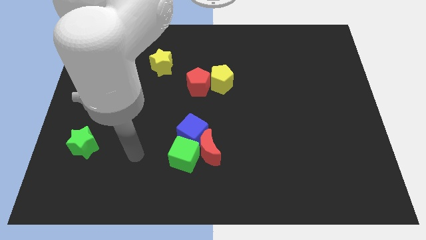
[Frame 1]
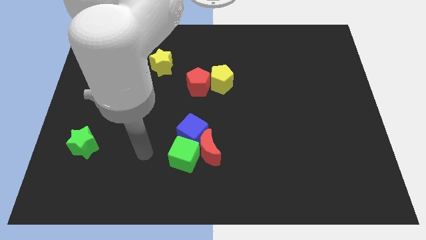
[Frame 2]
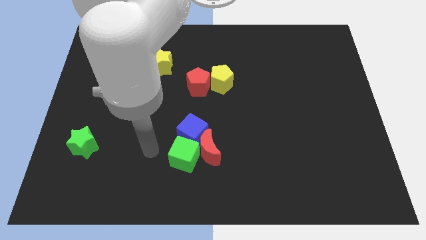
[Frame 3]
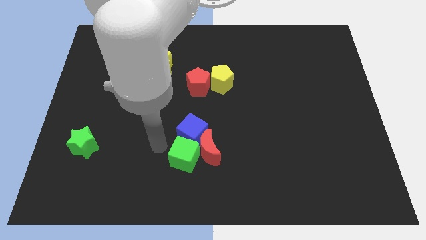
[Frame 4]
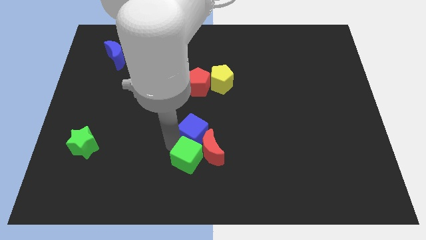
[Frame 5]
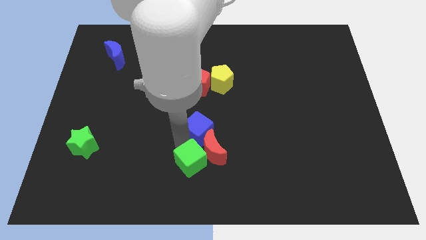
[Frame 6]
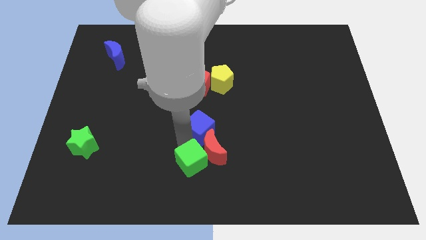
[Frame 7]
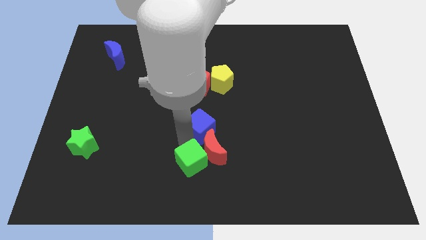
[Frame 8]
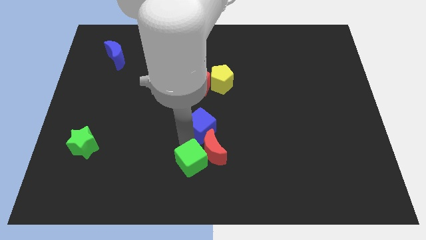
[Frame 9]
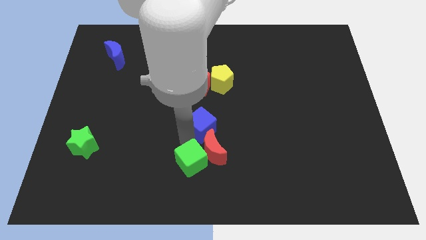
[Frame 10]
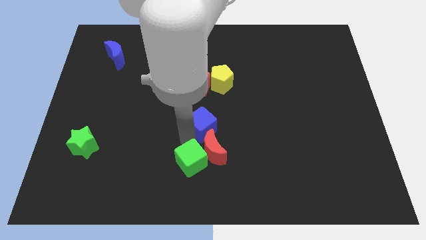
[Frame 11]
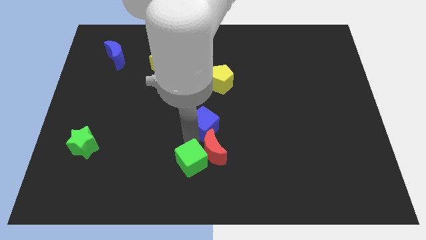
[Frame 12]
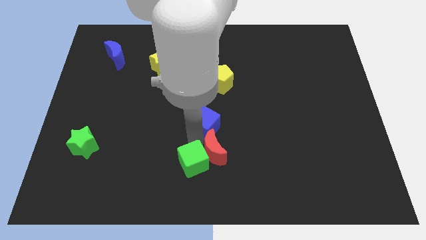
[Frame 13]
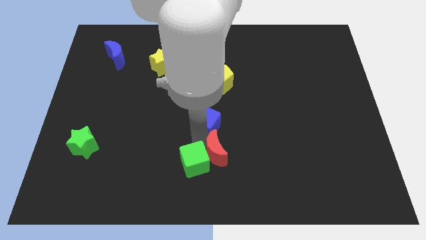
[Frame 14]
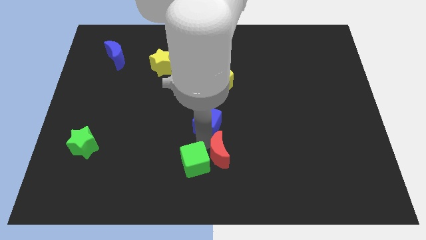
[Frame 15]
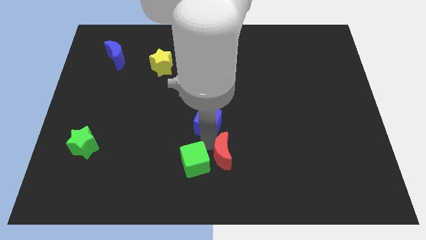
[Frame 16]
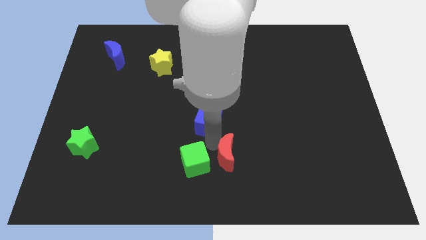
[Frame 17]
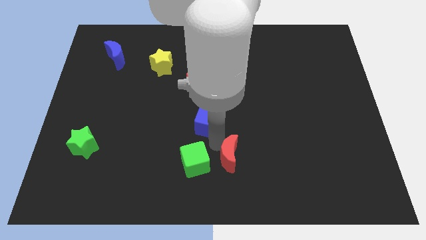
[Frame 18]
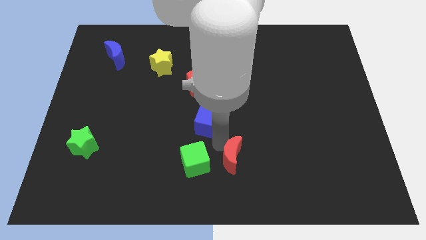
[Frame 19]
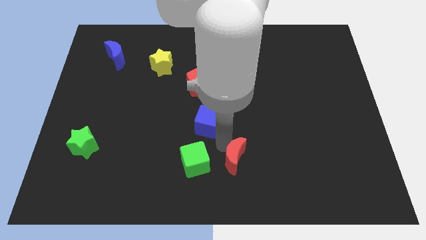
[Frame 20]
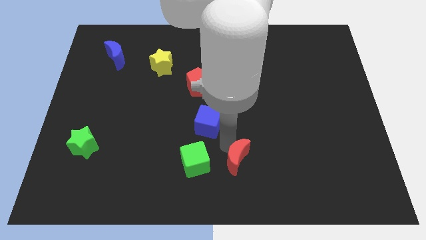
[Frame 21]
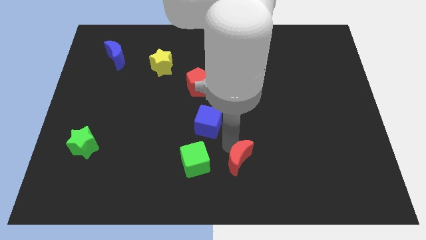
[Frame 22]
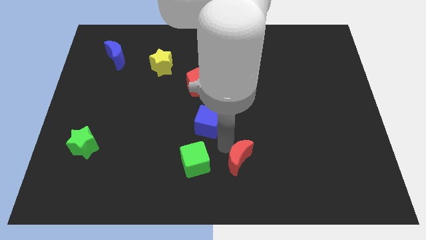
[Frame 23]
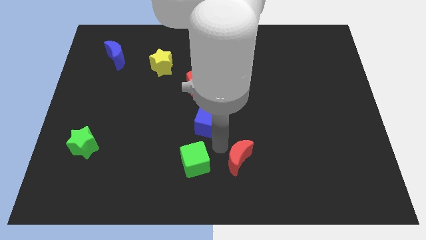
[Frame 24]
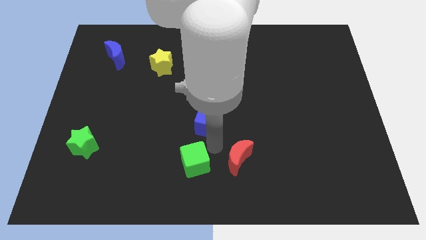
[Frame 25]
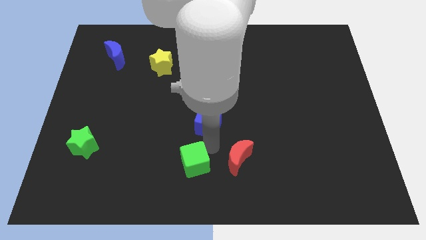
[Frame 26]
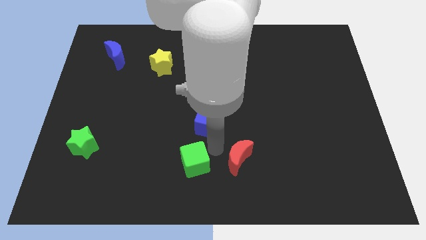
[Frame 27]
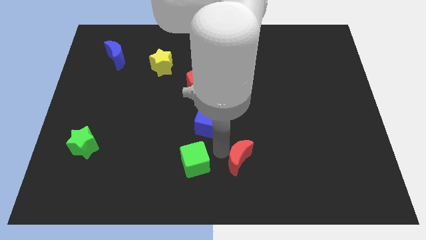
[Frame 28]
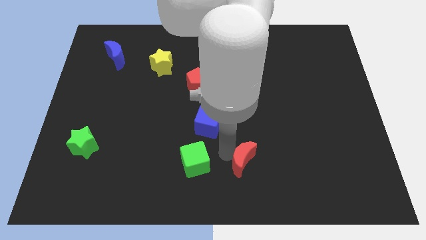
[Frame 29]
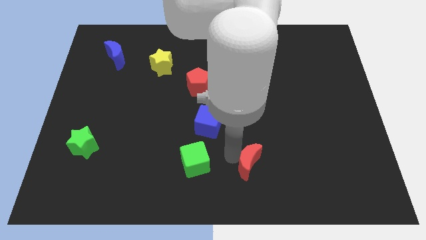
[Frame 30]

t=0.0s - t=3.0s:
move the red moon away from the green cube and blue cube

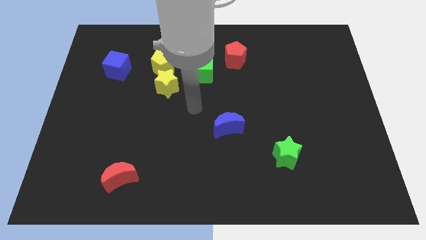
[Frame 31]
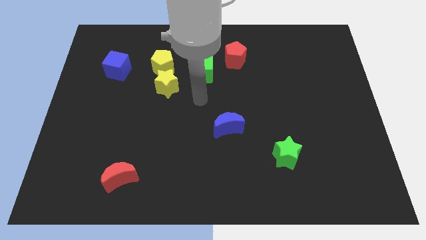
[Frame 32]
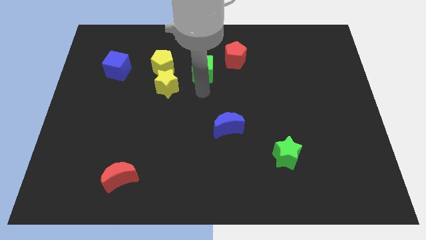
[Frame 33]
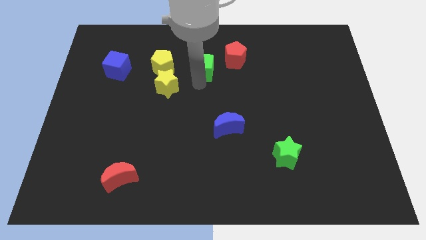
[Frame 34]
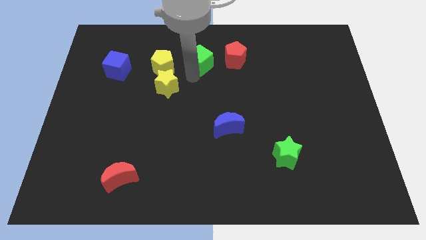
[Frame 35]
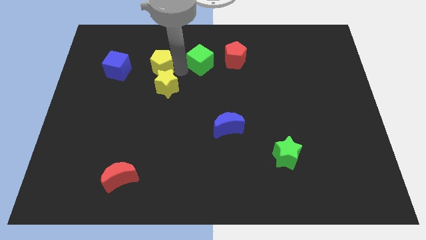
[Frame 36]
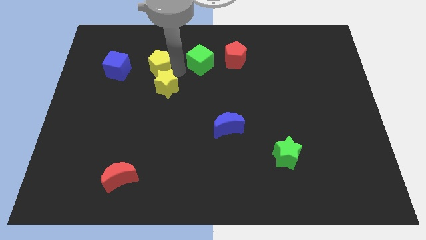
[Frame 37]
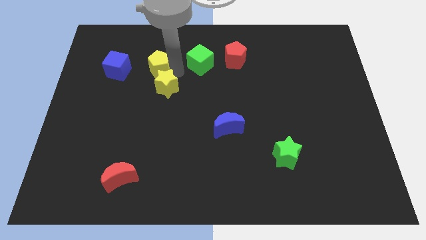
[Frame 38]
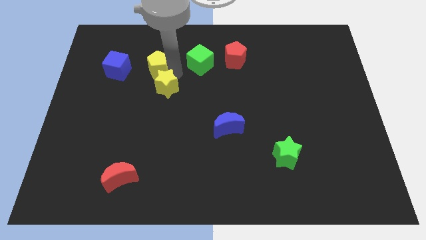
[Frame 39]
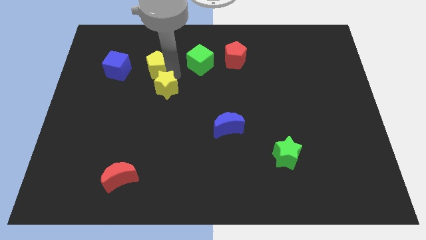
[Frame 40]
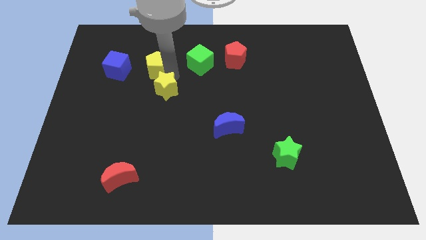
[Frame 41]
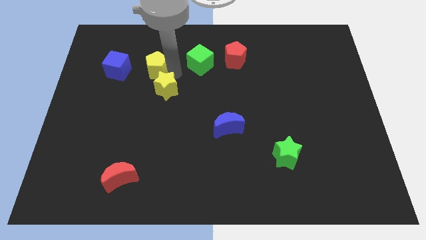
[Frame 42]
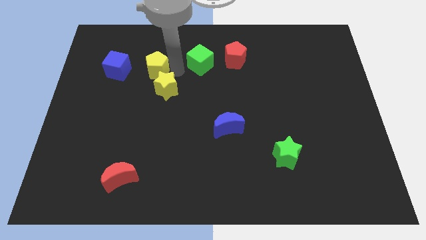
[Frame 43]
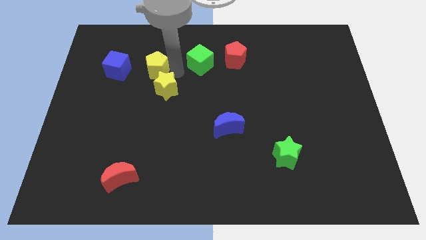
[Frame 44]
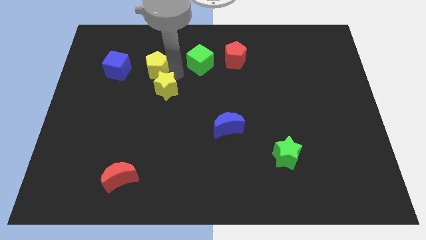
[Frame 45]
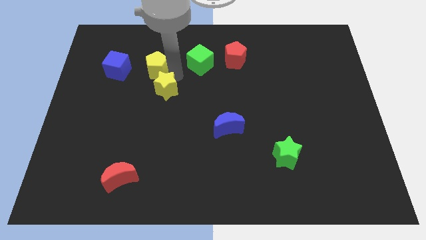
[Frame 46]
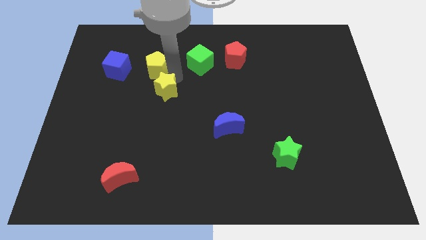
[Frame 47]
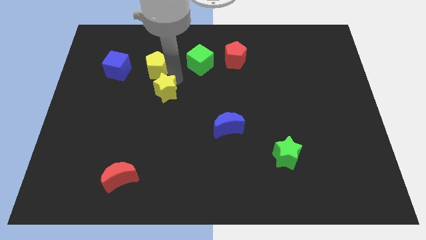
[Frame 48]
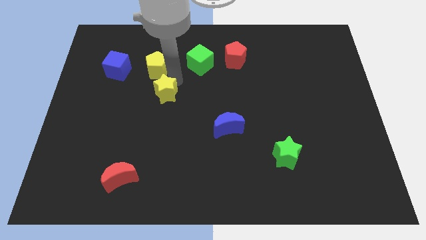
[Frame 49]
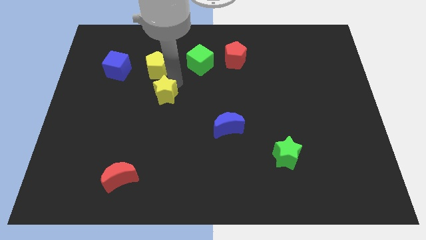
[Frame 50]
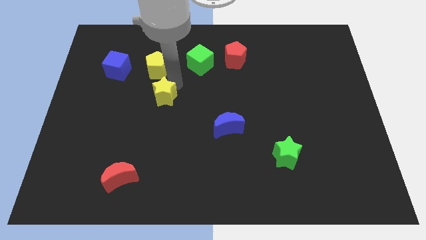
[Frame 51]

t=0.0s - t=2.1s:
pull the yellow star apart from the yellow pentagon and green cube

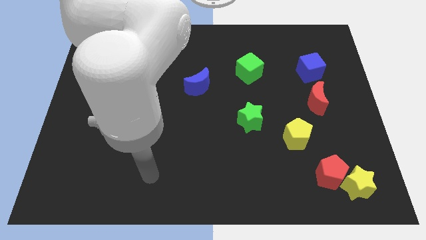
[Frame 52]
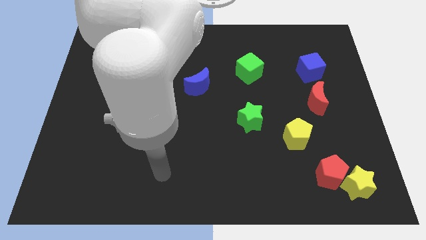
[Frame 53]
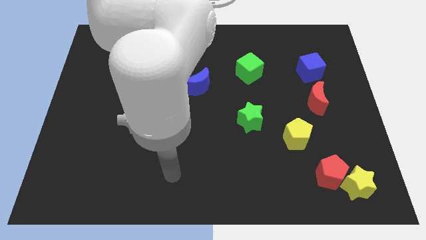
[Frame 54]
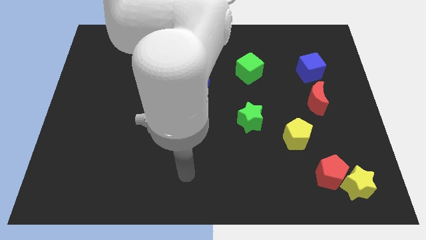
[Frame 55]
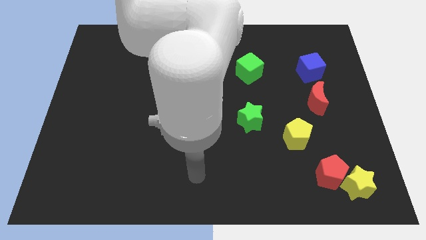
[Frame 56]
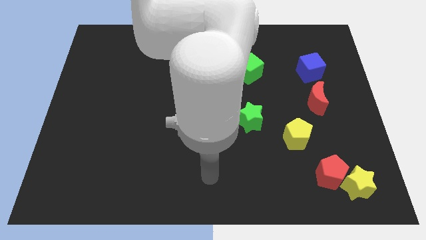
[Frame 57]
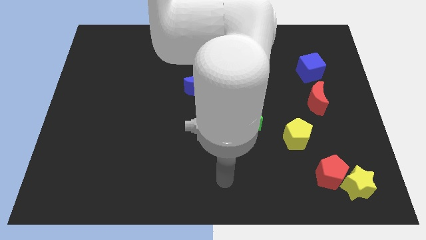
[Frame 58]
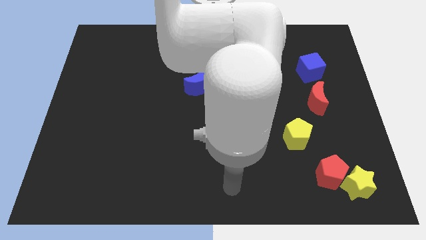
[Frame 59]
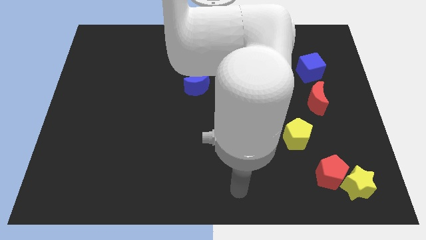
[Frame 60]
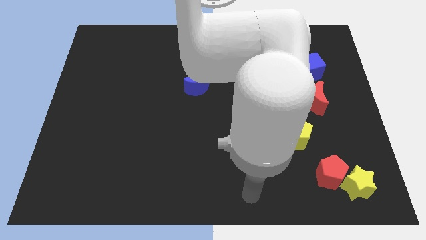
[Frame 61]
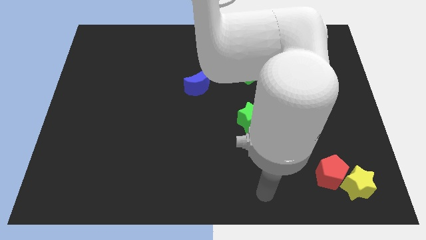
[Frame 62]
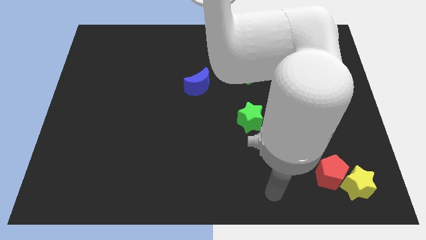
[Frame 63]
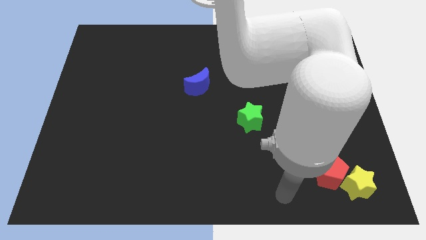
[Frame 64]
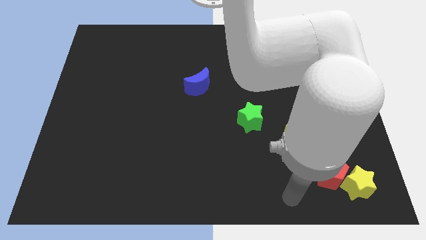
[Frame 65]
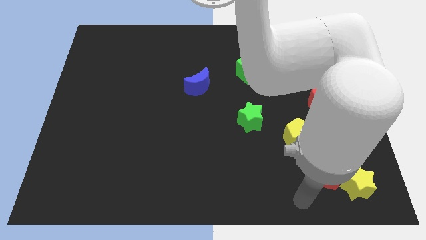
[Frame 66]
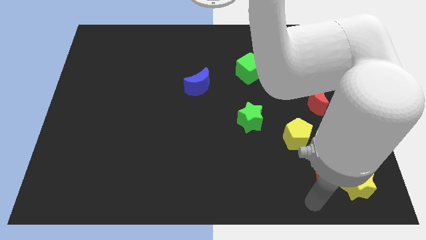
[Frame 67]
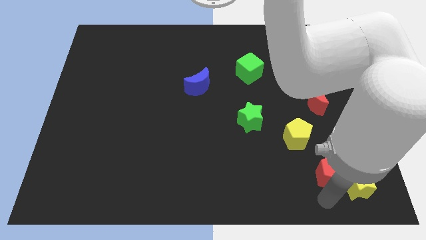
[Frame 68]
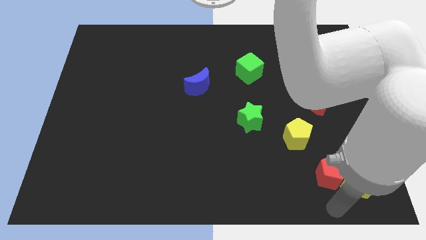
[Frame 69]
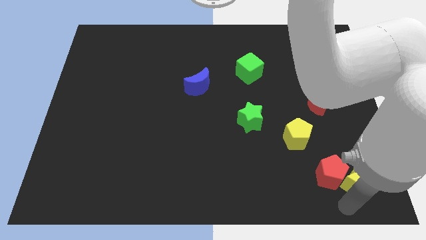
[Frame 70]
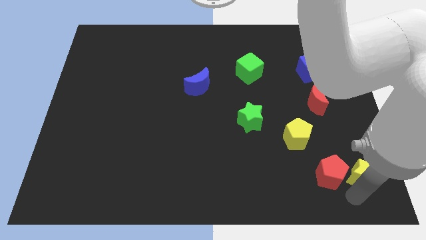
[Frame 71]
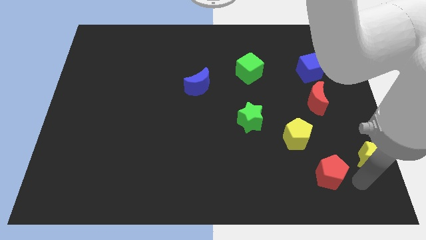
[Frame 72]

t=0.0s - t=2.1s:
move the red pentagon away from the yellow star

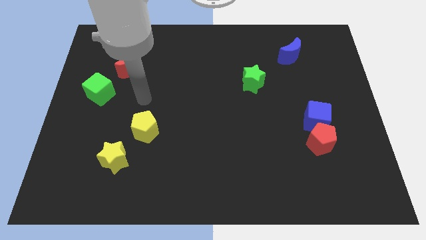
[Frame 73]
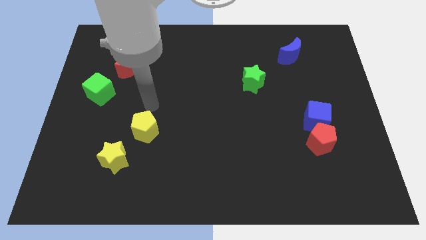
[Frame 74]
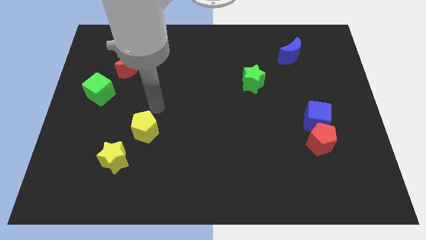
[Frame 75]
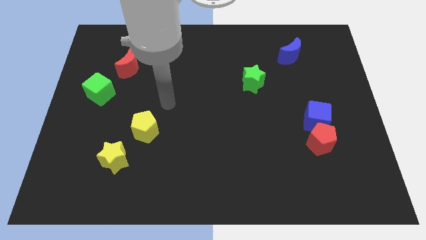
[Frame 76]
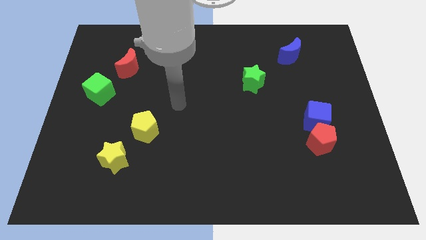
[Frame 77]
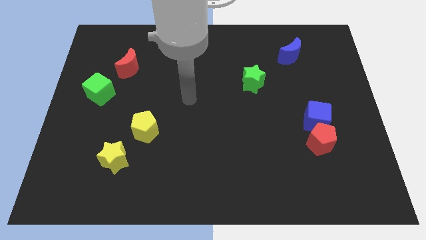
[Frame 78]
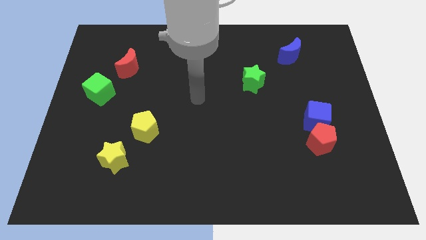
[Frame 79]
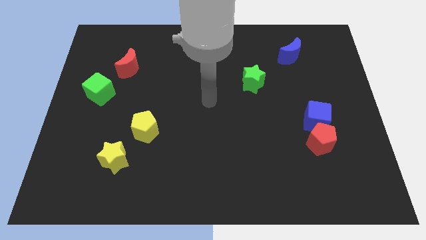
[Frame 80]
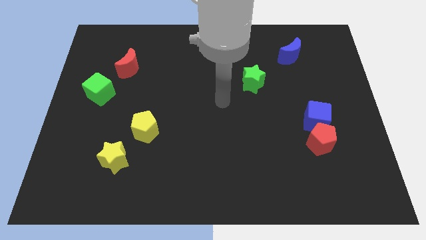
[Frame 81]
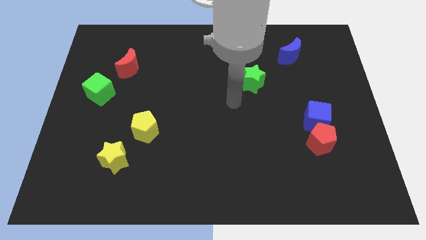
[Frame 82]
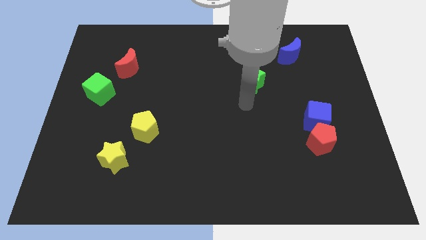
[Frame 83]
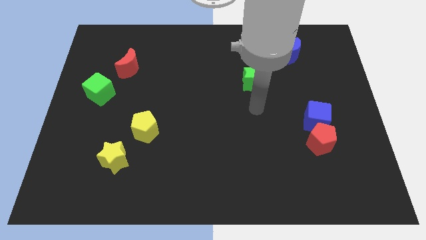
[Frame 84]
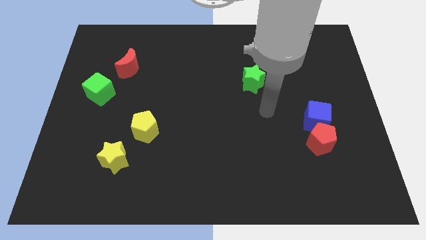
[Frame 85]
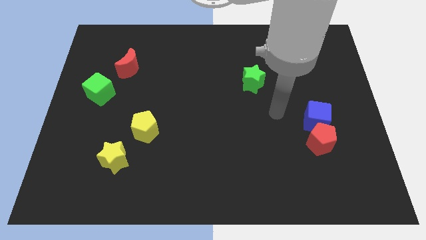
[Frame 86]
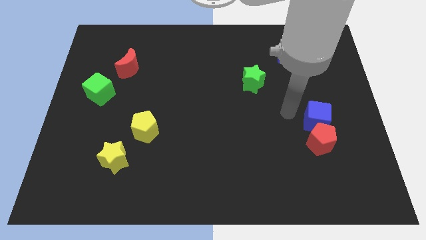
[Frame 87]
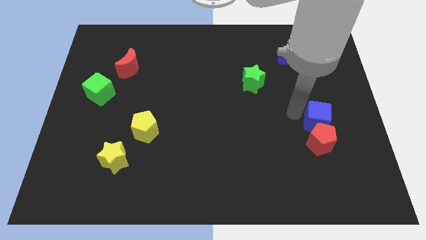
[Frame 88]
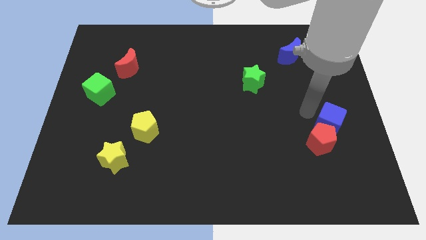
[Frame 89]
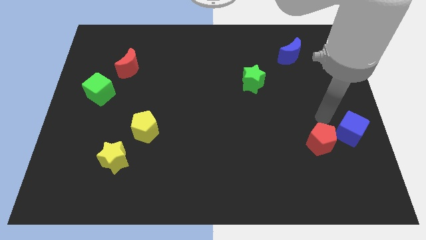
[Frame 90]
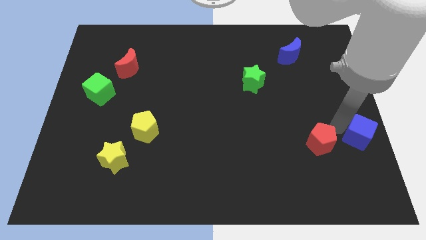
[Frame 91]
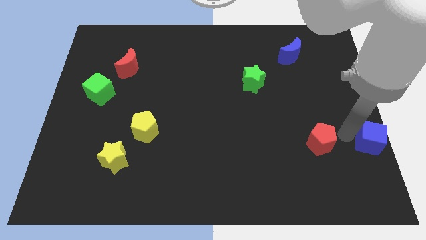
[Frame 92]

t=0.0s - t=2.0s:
separate the red pentagon from the blue cube

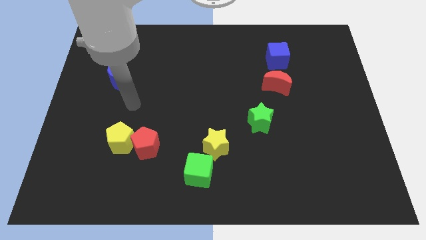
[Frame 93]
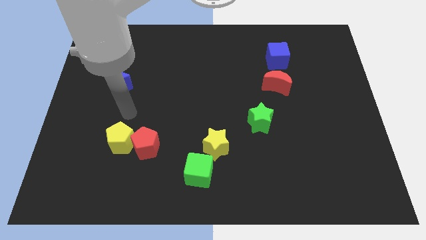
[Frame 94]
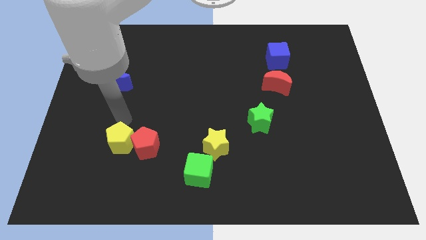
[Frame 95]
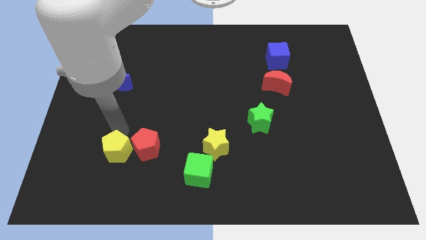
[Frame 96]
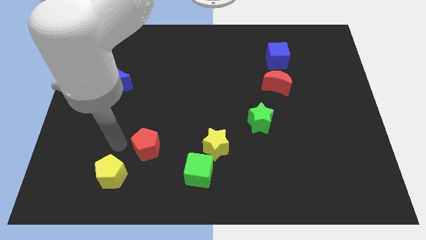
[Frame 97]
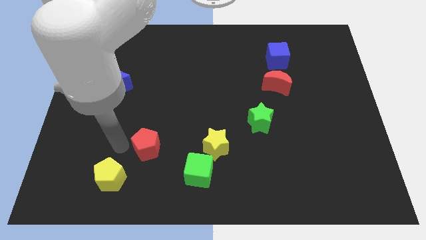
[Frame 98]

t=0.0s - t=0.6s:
separate the red pentagon from the yellow pentagon
